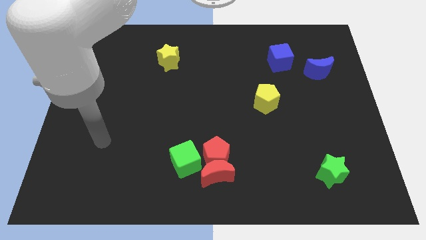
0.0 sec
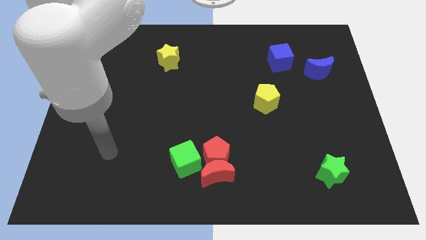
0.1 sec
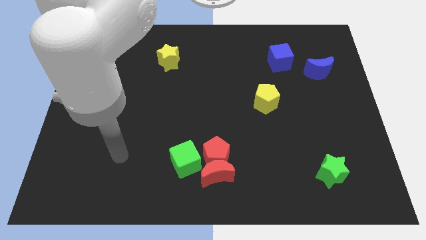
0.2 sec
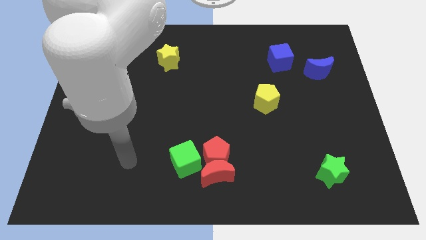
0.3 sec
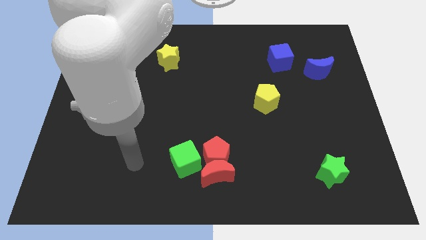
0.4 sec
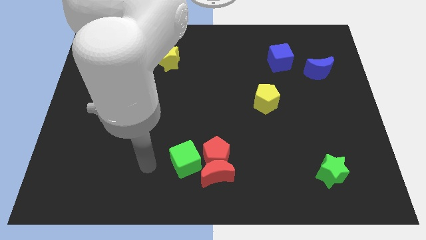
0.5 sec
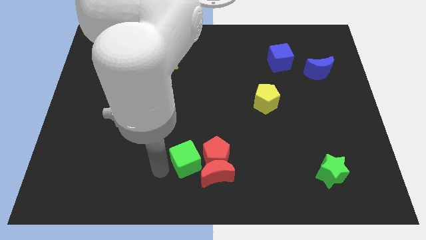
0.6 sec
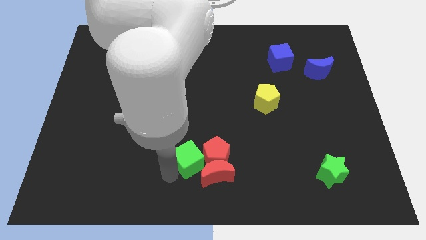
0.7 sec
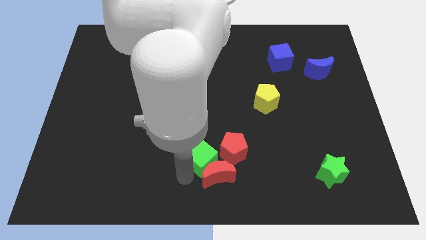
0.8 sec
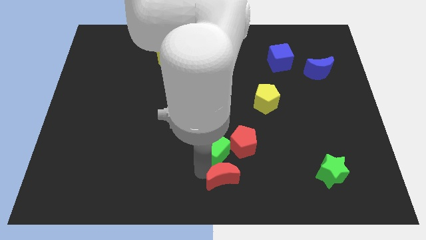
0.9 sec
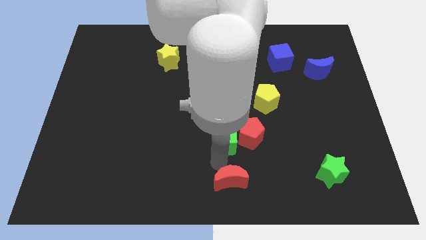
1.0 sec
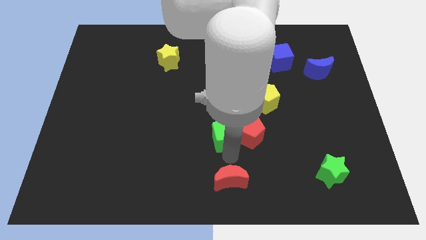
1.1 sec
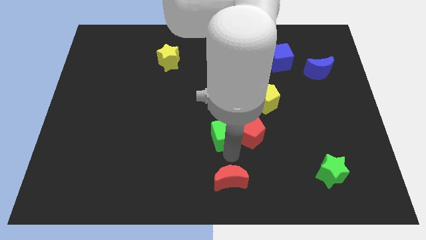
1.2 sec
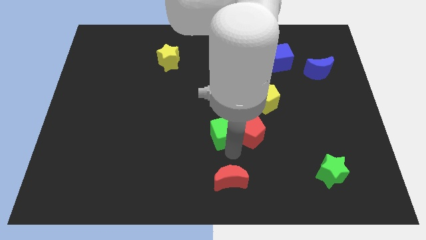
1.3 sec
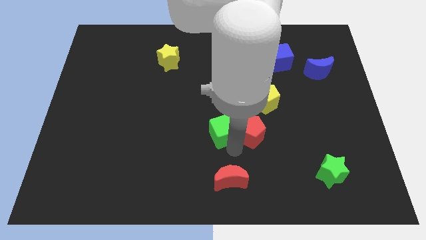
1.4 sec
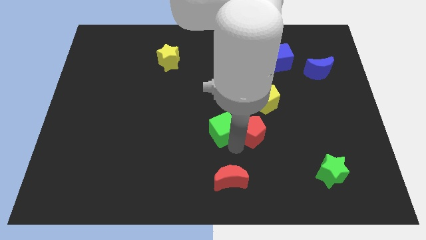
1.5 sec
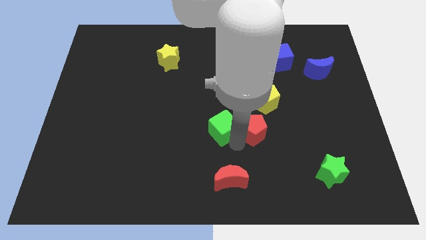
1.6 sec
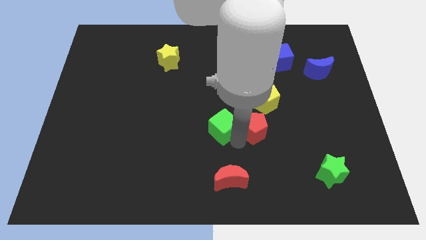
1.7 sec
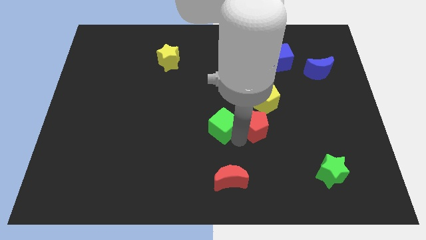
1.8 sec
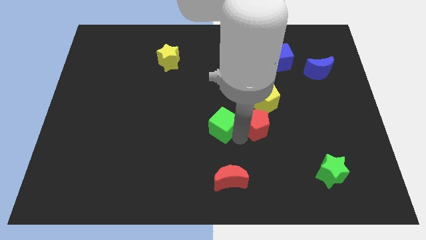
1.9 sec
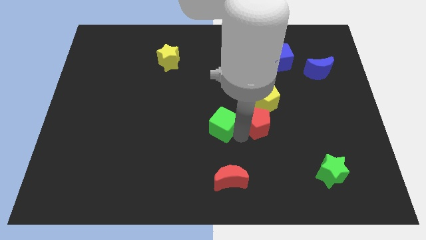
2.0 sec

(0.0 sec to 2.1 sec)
separate the red pentagon from the red moon and green cube

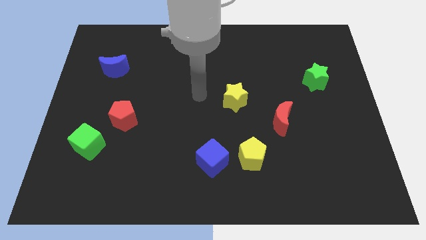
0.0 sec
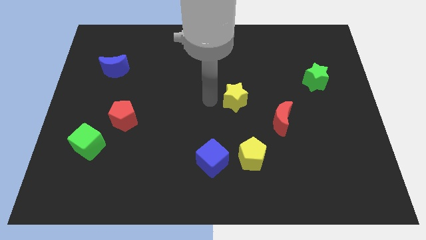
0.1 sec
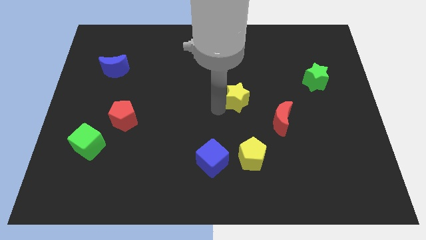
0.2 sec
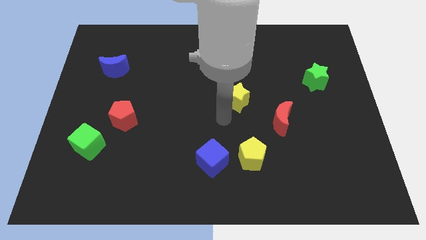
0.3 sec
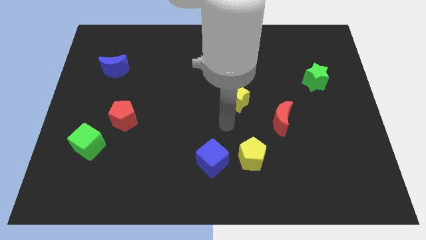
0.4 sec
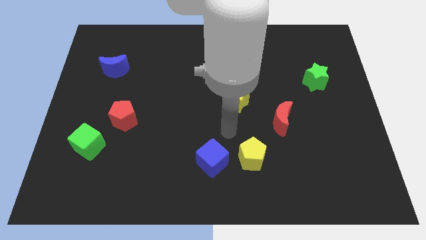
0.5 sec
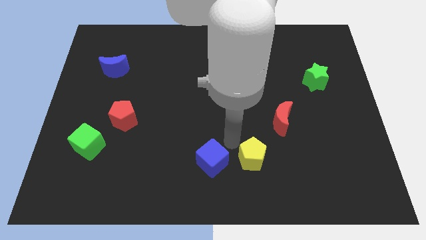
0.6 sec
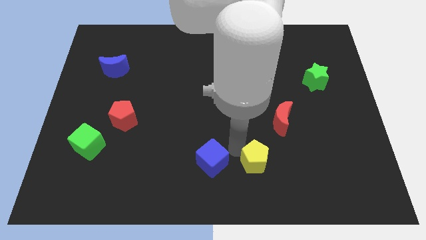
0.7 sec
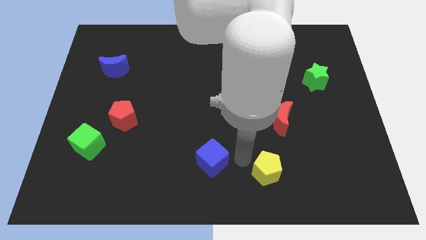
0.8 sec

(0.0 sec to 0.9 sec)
separate the blue cube from the yellow pentagon

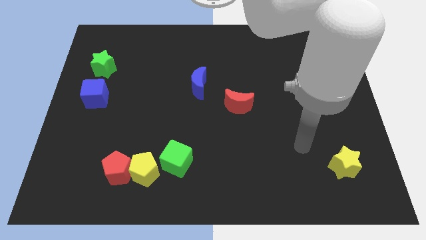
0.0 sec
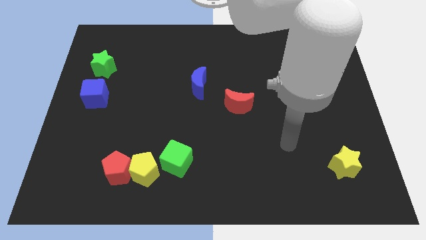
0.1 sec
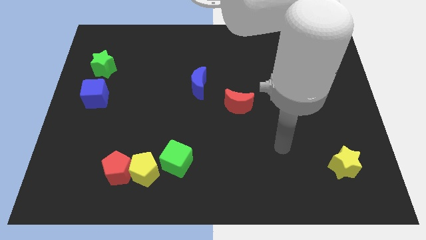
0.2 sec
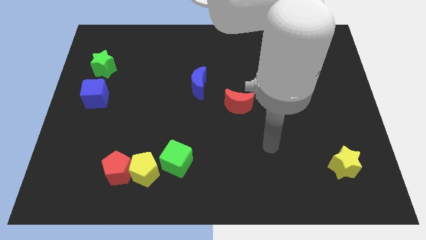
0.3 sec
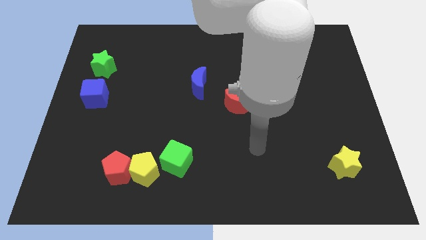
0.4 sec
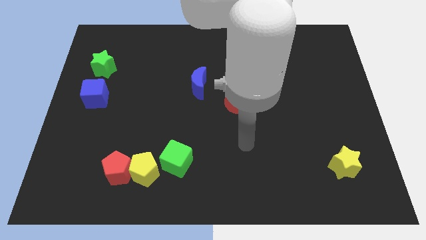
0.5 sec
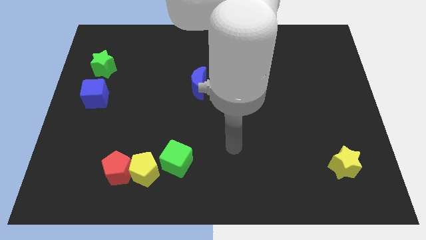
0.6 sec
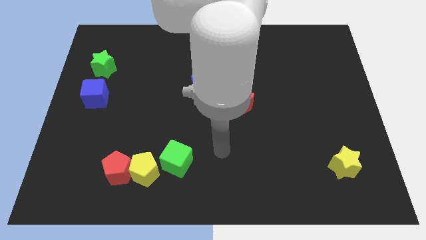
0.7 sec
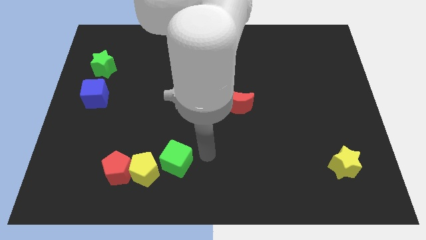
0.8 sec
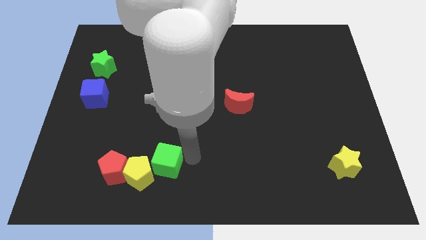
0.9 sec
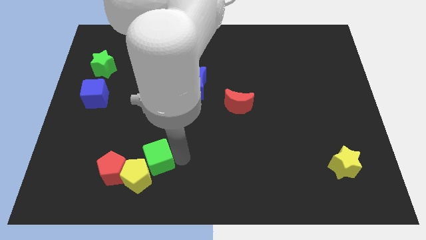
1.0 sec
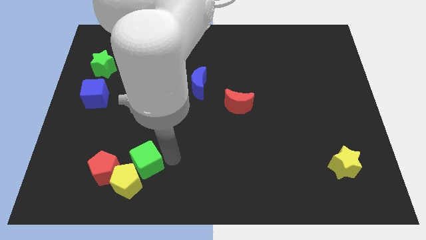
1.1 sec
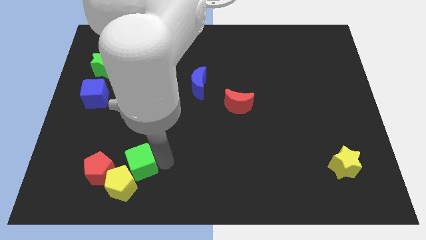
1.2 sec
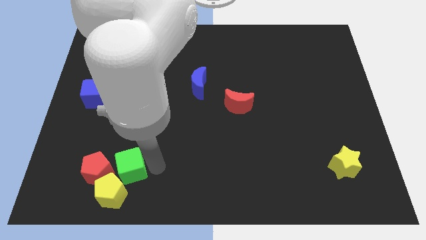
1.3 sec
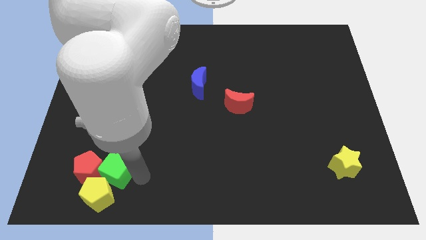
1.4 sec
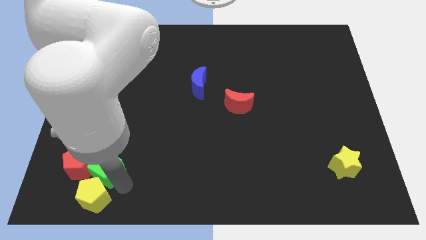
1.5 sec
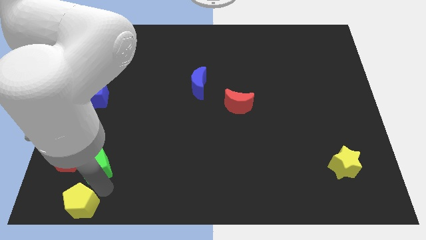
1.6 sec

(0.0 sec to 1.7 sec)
move the red pentagon away from the yellow pentagon

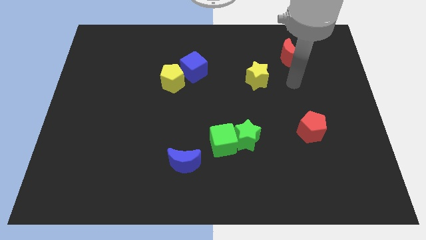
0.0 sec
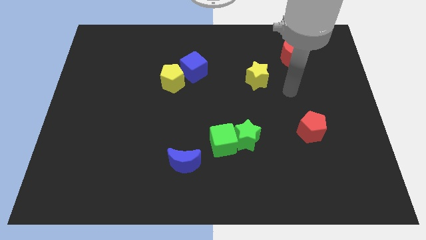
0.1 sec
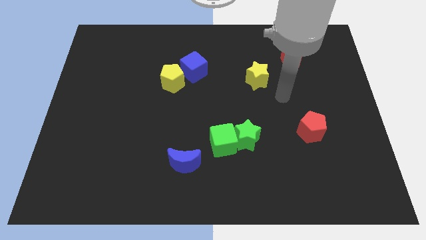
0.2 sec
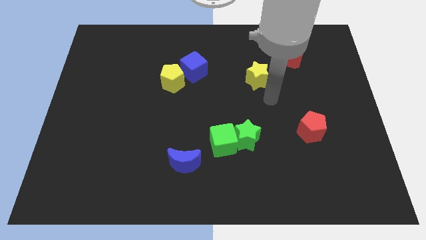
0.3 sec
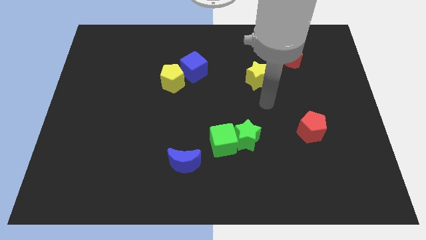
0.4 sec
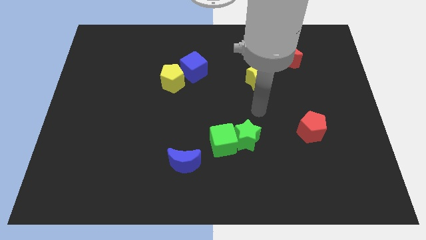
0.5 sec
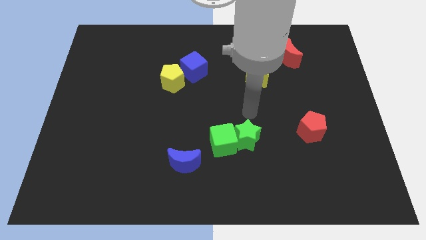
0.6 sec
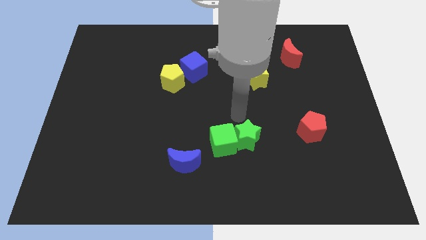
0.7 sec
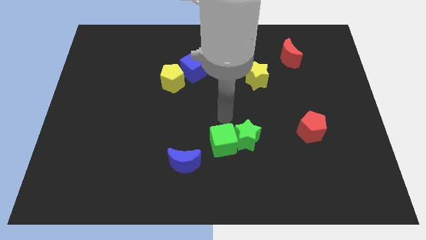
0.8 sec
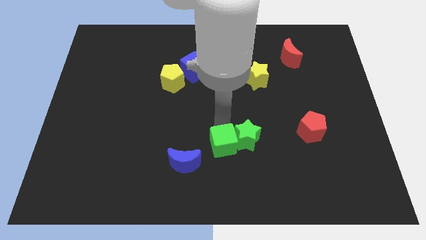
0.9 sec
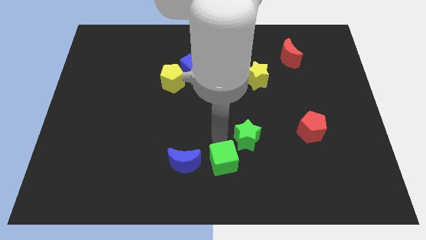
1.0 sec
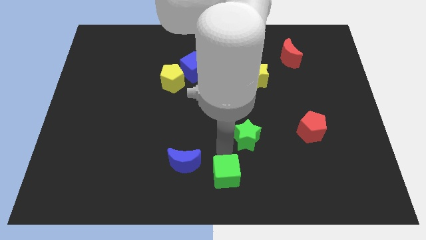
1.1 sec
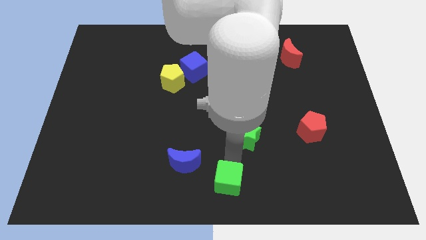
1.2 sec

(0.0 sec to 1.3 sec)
pull the green star apart from the green cube

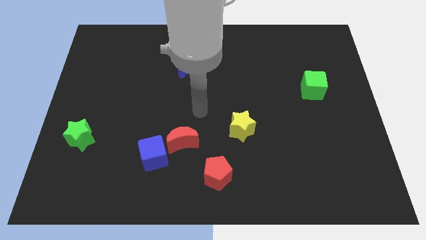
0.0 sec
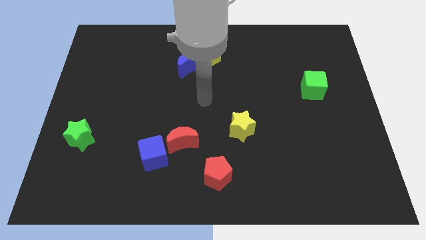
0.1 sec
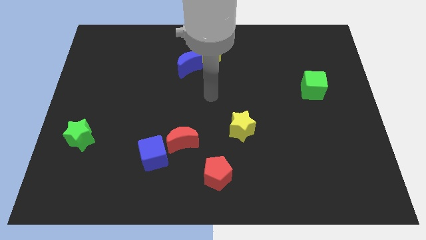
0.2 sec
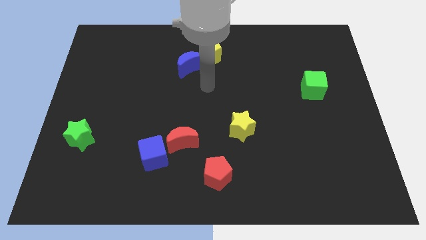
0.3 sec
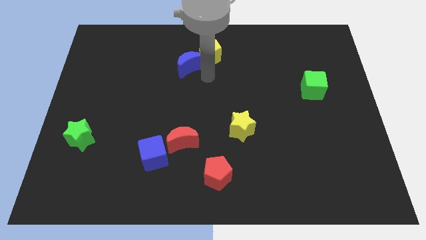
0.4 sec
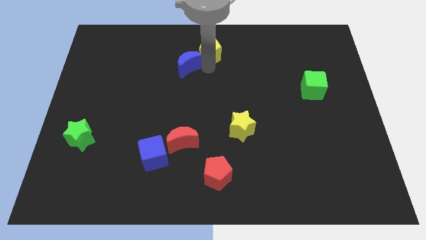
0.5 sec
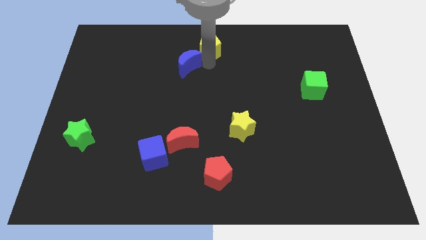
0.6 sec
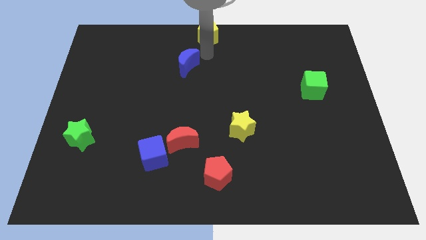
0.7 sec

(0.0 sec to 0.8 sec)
separate the blue moon from the yellow pentagon

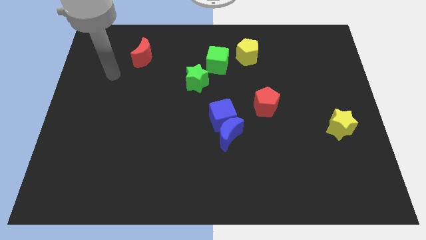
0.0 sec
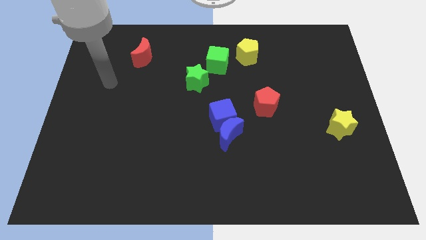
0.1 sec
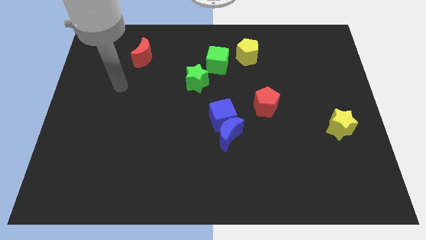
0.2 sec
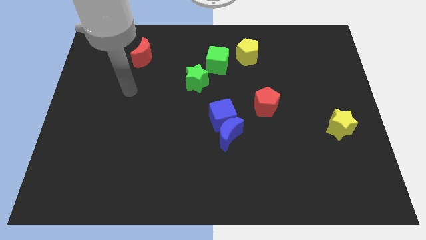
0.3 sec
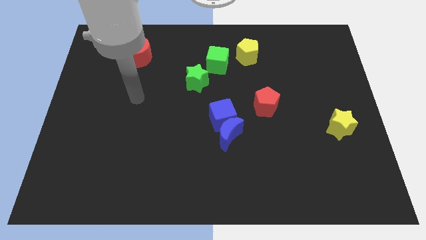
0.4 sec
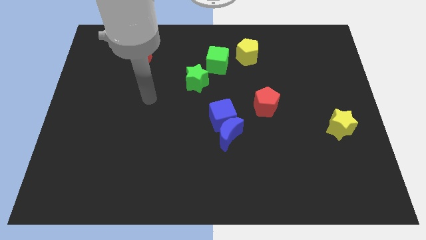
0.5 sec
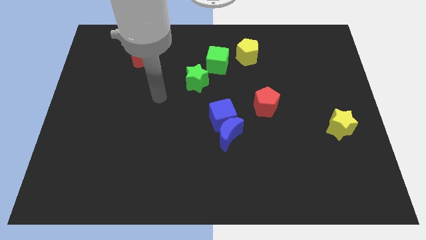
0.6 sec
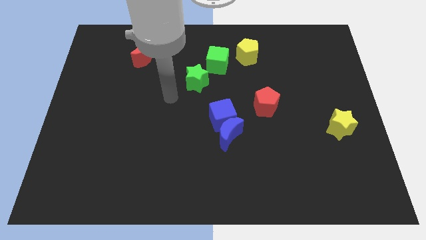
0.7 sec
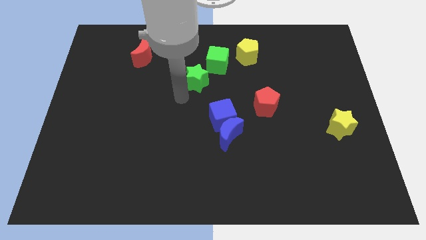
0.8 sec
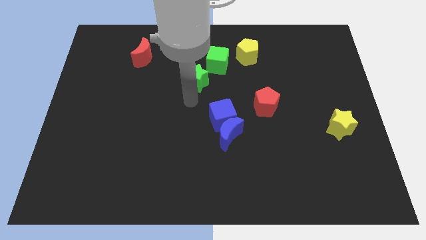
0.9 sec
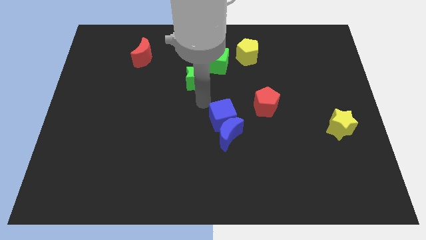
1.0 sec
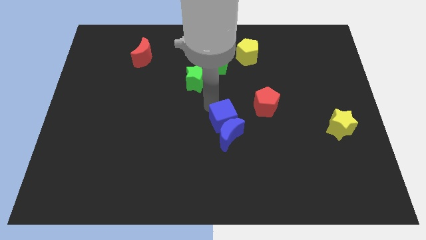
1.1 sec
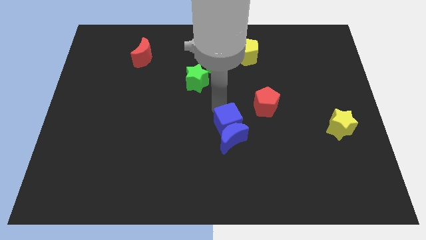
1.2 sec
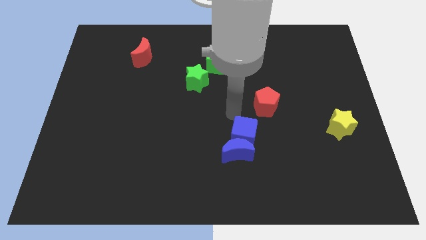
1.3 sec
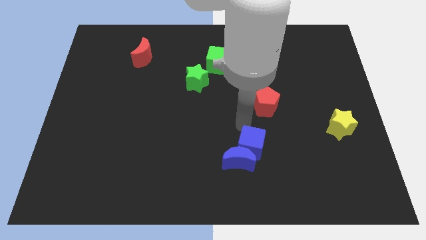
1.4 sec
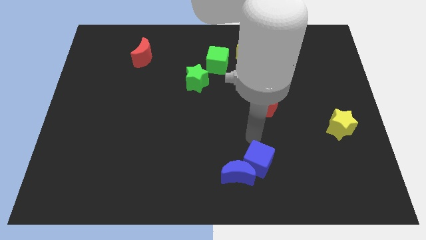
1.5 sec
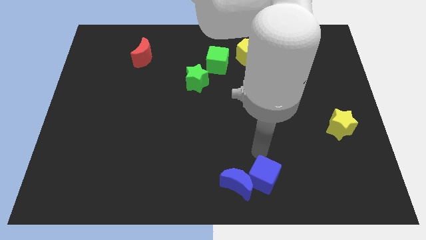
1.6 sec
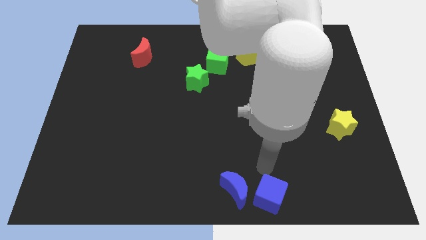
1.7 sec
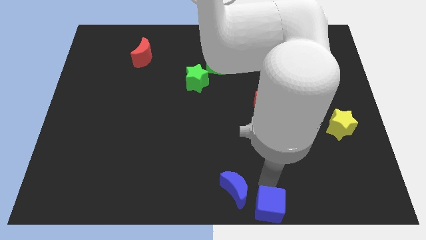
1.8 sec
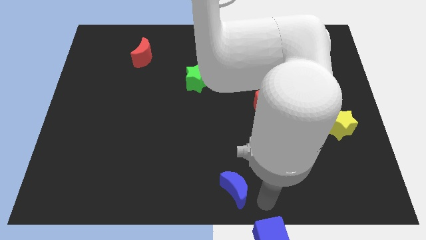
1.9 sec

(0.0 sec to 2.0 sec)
move the blue moon away from the blue cube

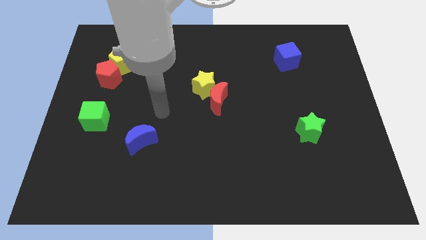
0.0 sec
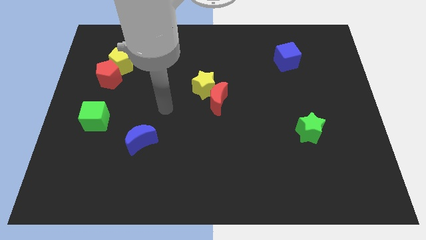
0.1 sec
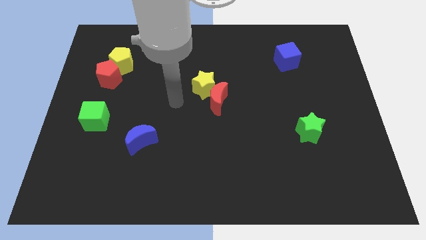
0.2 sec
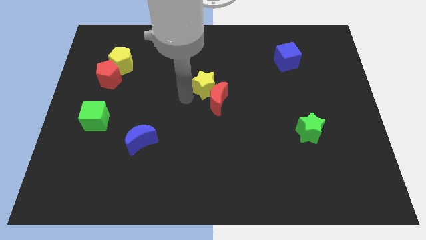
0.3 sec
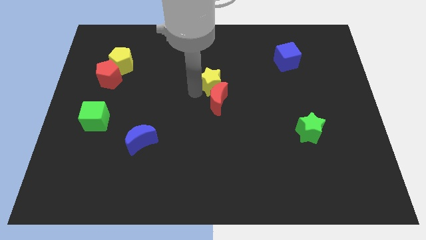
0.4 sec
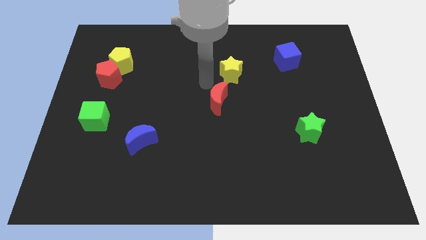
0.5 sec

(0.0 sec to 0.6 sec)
pull the red moon apart from the yellow star
